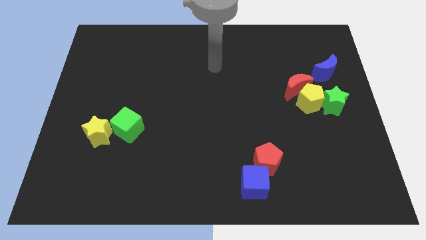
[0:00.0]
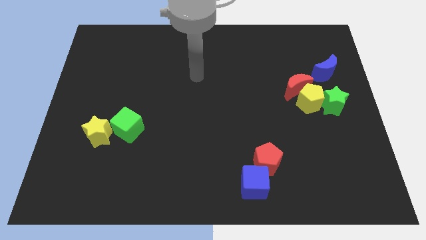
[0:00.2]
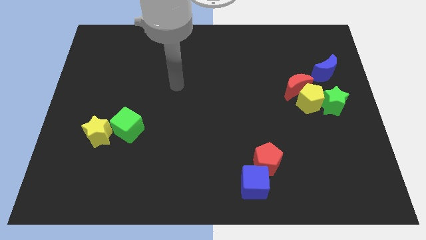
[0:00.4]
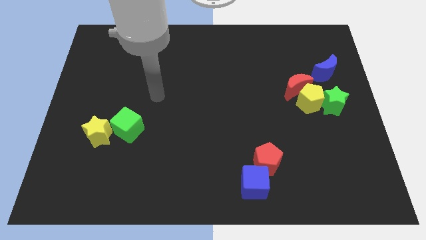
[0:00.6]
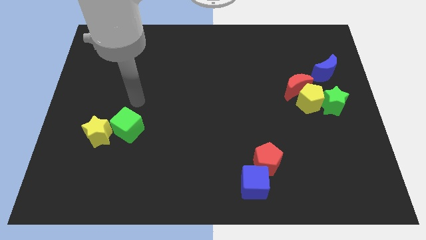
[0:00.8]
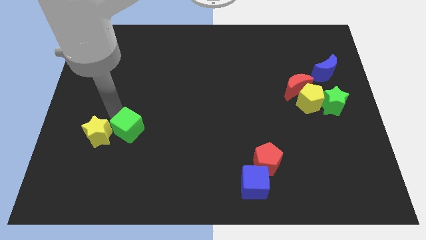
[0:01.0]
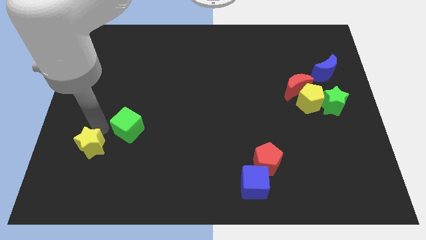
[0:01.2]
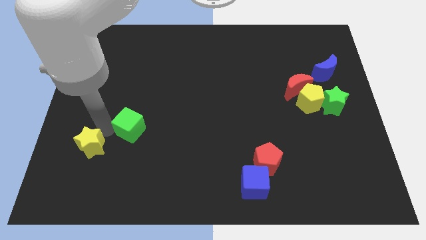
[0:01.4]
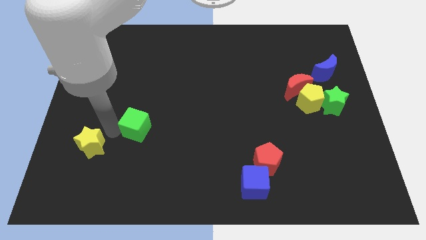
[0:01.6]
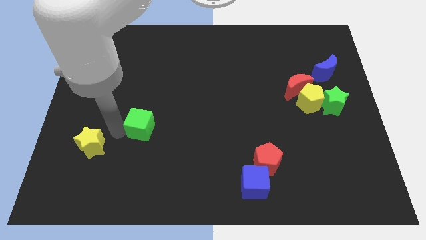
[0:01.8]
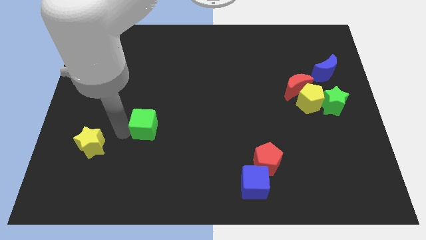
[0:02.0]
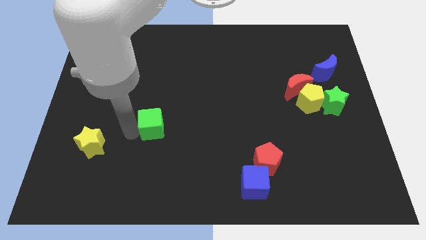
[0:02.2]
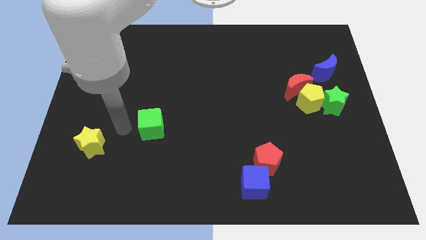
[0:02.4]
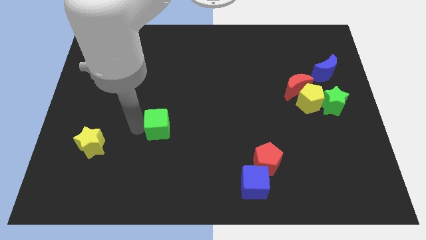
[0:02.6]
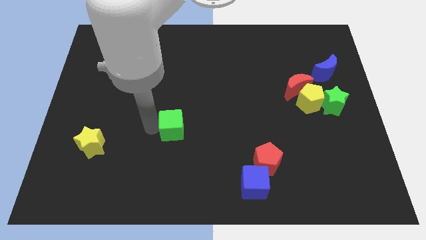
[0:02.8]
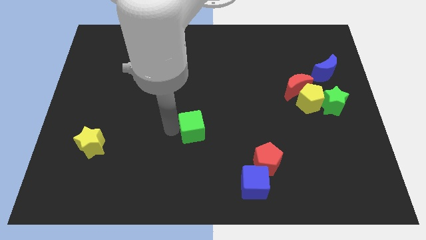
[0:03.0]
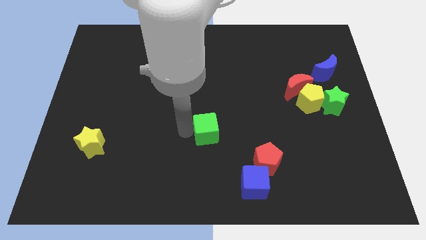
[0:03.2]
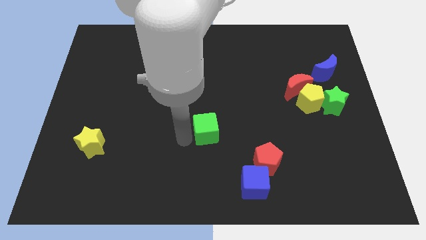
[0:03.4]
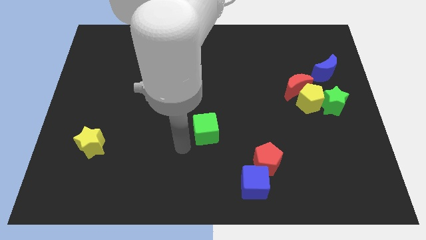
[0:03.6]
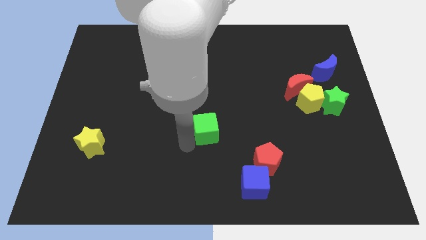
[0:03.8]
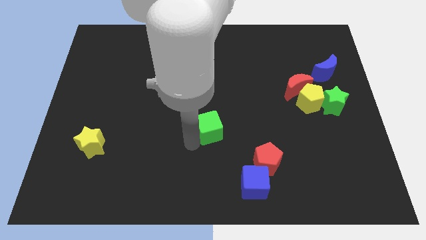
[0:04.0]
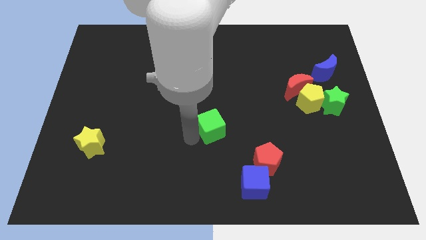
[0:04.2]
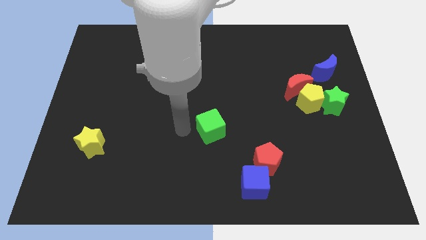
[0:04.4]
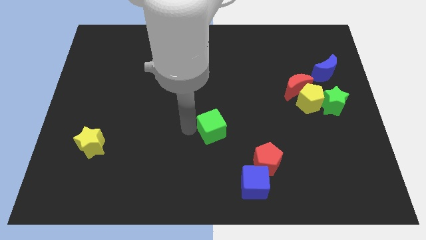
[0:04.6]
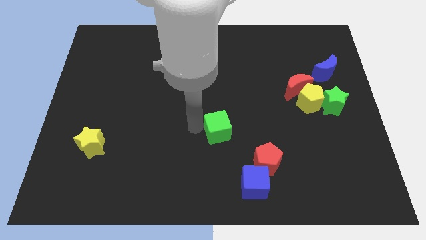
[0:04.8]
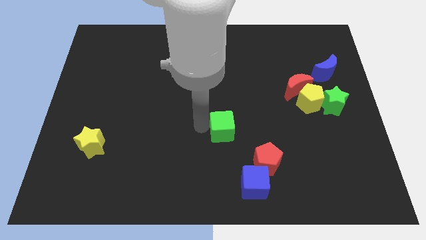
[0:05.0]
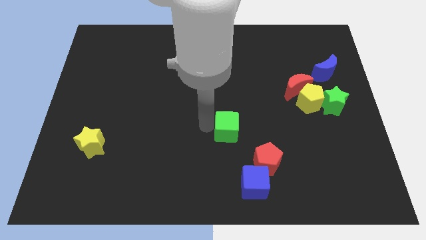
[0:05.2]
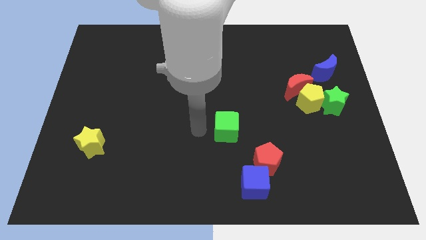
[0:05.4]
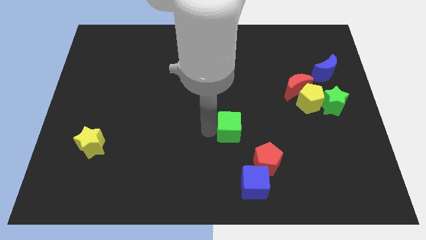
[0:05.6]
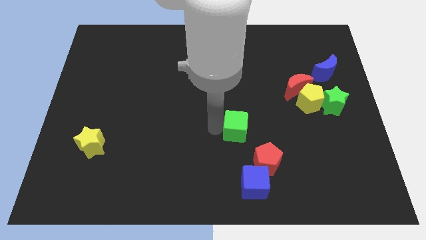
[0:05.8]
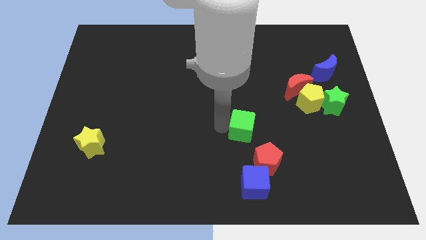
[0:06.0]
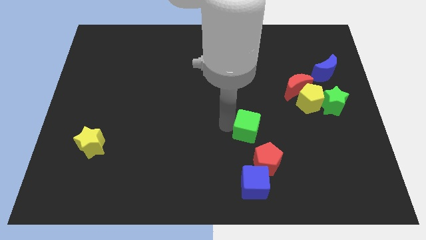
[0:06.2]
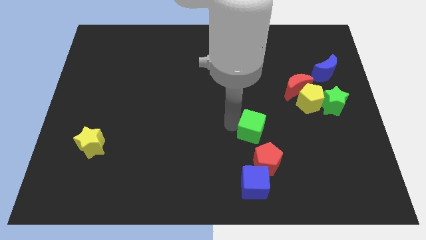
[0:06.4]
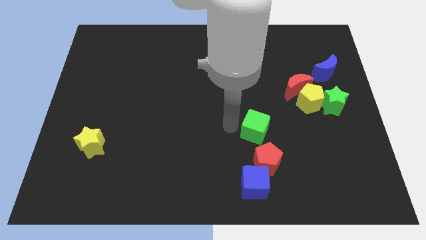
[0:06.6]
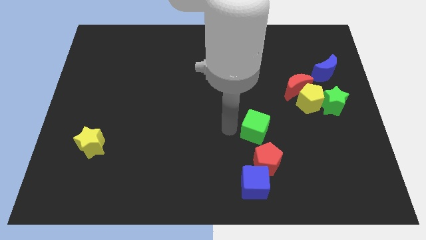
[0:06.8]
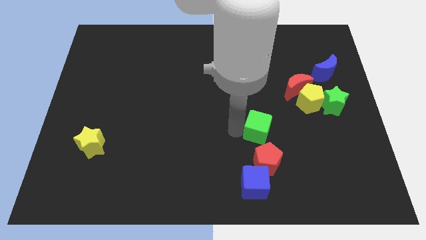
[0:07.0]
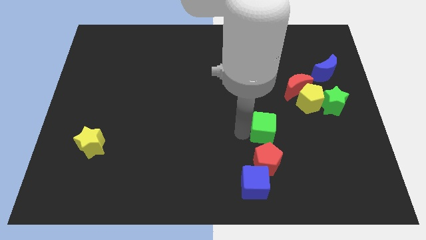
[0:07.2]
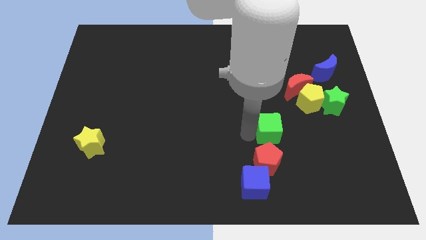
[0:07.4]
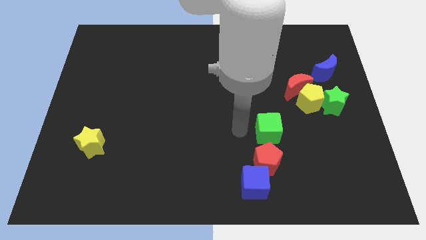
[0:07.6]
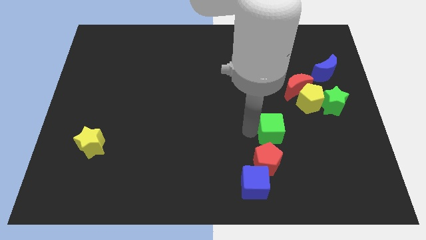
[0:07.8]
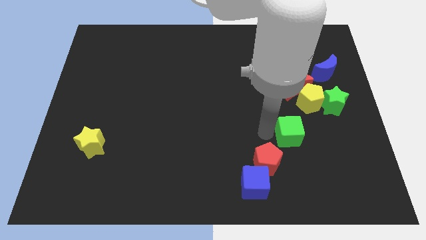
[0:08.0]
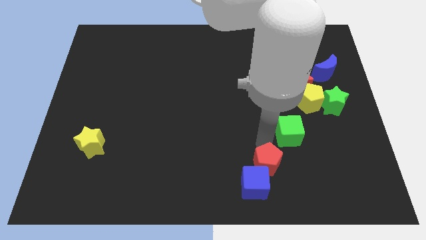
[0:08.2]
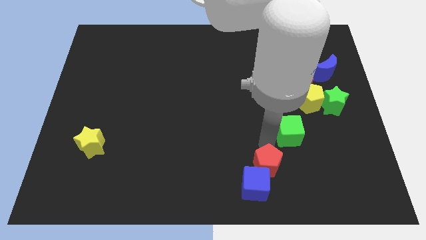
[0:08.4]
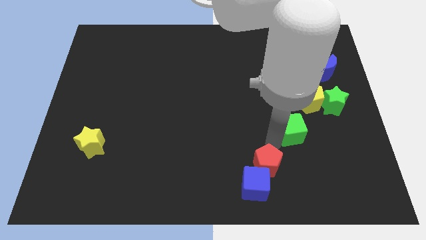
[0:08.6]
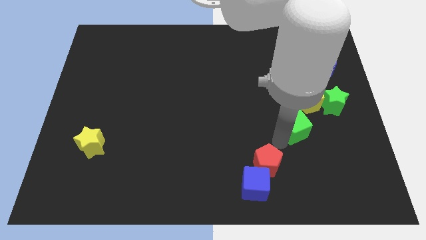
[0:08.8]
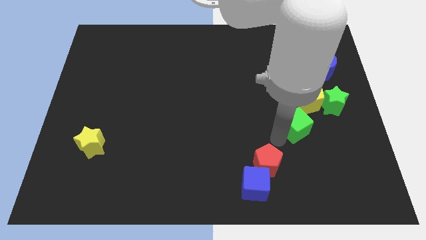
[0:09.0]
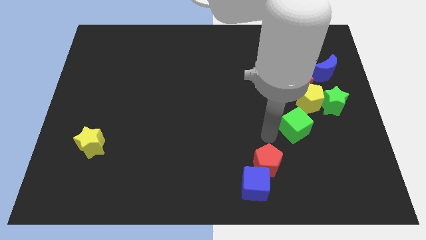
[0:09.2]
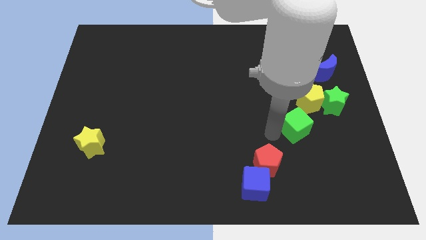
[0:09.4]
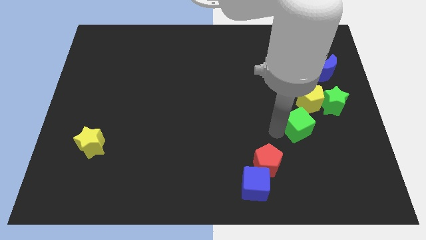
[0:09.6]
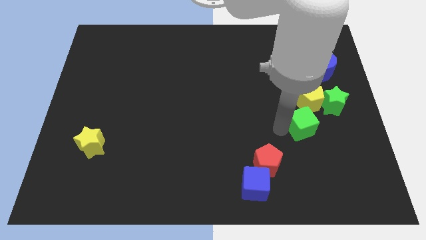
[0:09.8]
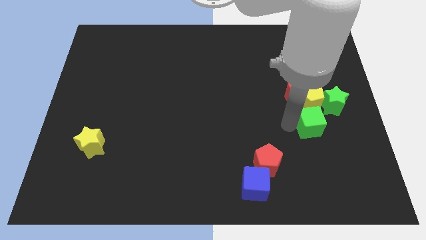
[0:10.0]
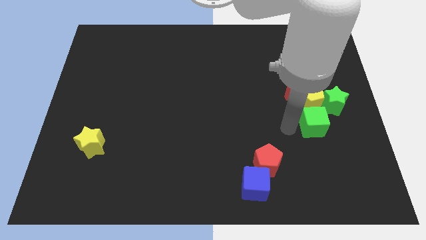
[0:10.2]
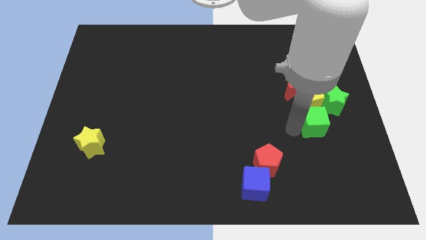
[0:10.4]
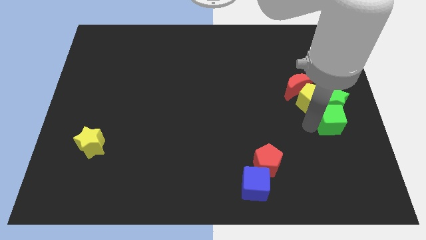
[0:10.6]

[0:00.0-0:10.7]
slide the green cube to the right side of the board

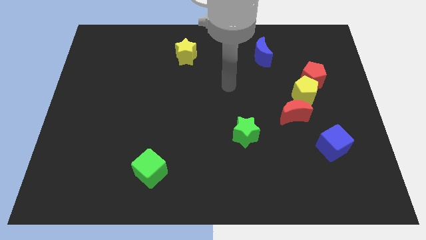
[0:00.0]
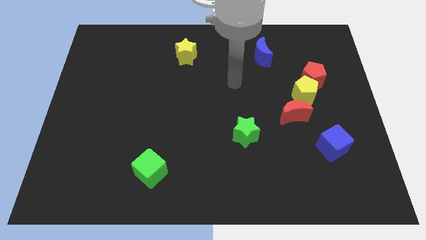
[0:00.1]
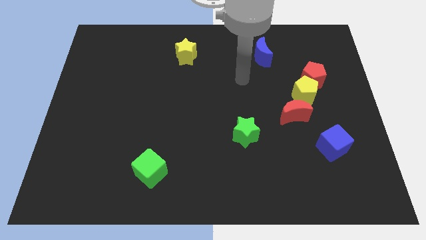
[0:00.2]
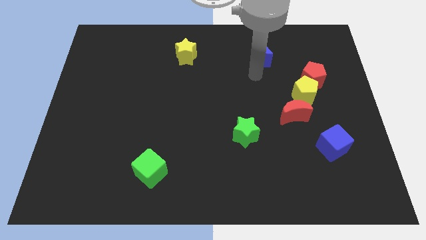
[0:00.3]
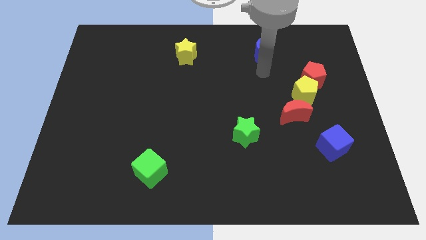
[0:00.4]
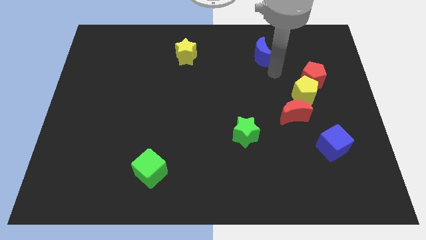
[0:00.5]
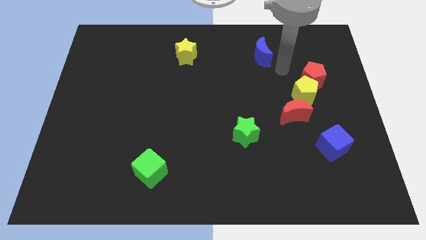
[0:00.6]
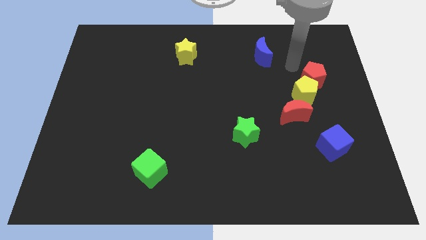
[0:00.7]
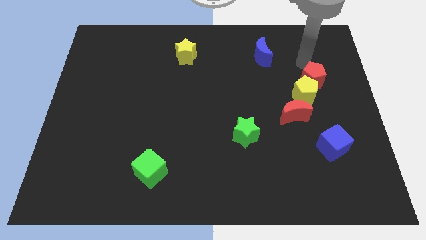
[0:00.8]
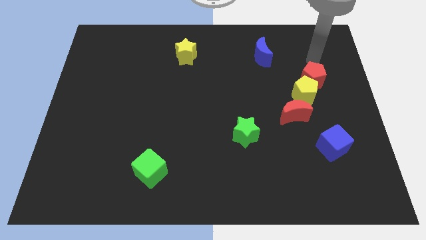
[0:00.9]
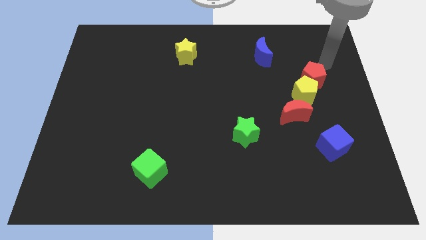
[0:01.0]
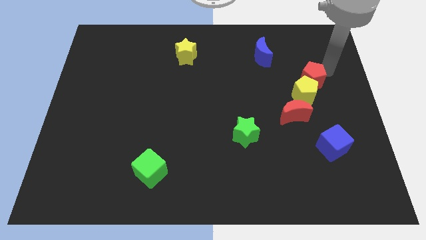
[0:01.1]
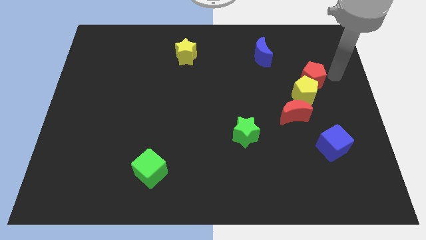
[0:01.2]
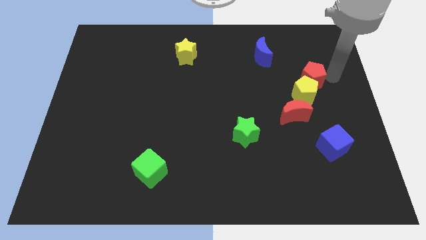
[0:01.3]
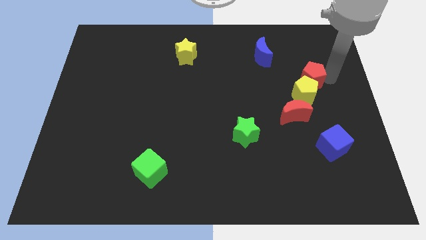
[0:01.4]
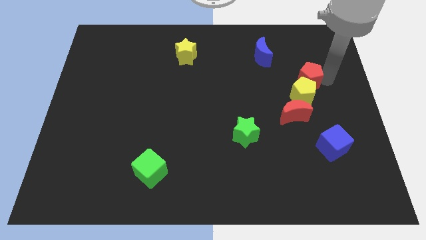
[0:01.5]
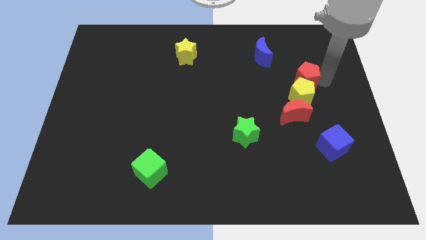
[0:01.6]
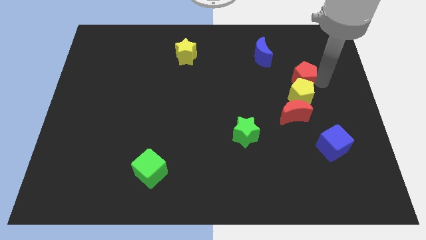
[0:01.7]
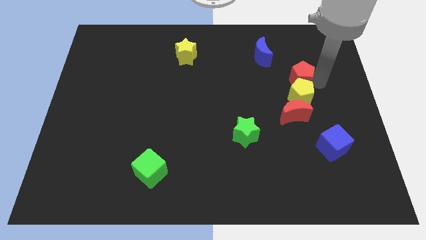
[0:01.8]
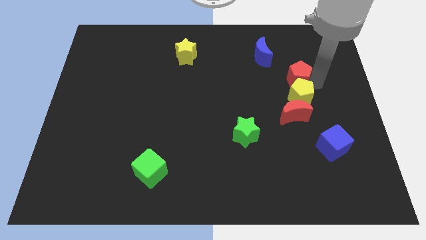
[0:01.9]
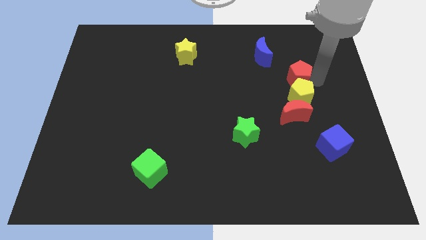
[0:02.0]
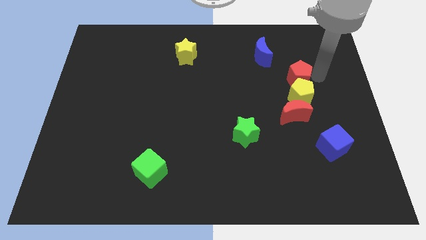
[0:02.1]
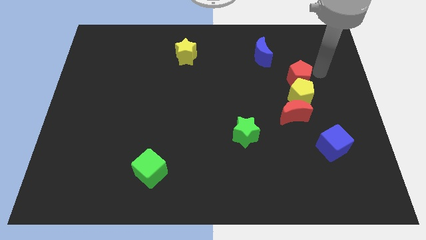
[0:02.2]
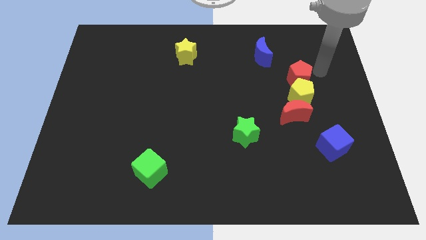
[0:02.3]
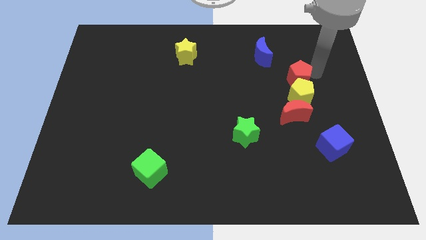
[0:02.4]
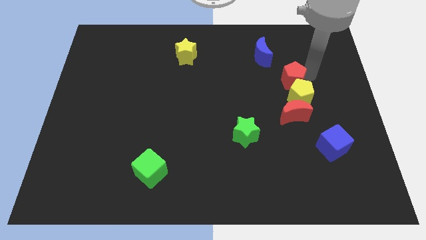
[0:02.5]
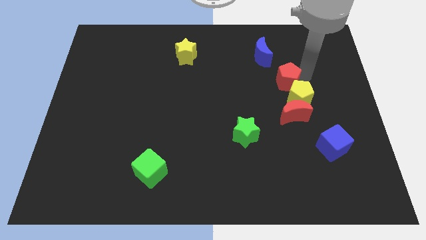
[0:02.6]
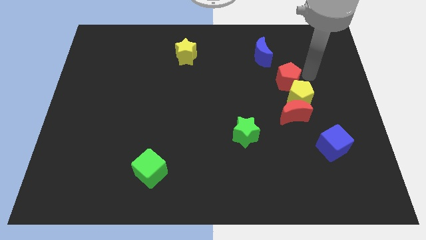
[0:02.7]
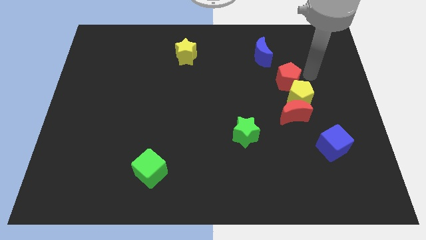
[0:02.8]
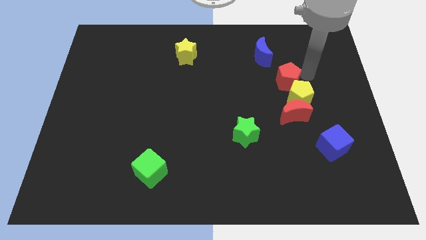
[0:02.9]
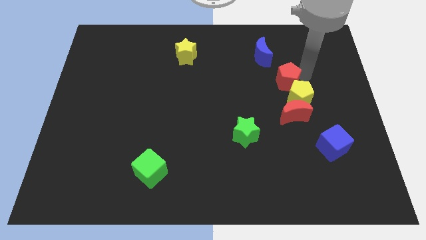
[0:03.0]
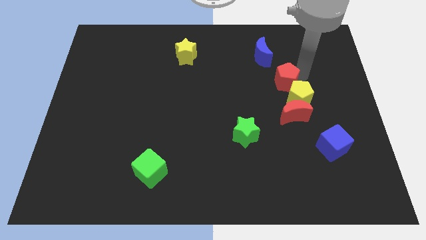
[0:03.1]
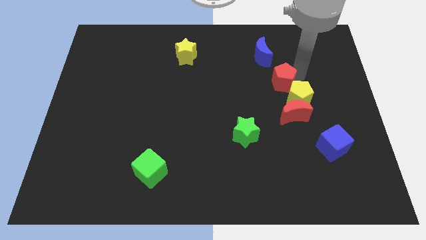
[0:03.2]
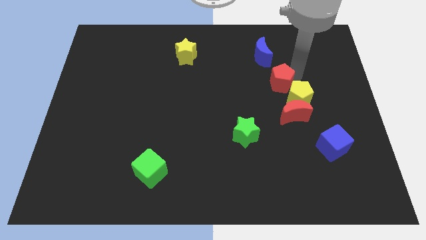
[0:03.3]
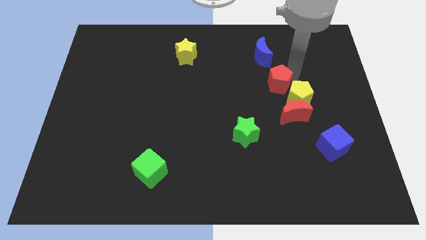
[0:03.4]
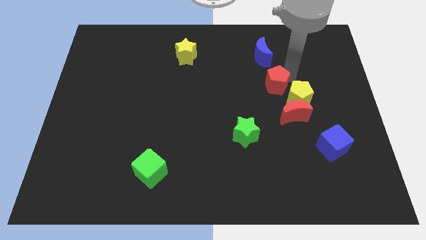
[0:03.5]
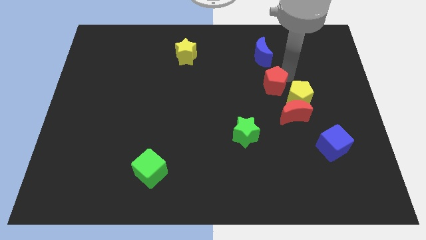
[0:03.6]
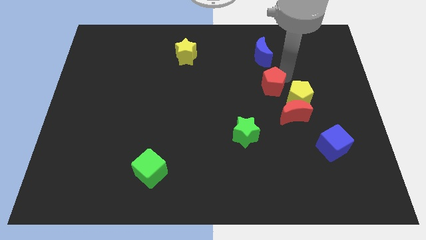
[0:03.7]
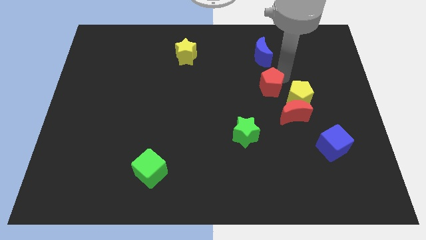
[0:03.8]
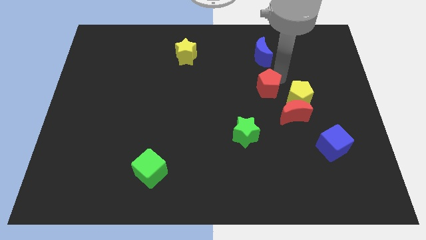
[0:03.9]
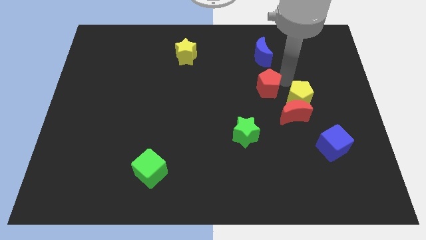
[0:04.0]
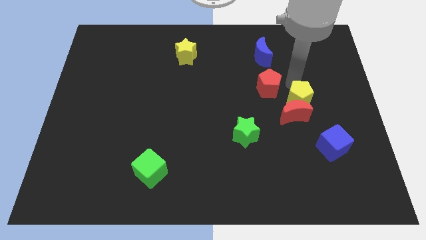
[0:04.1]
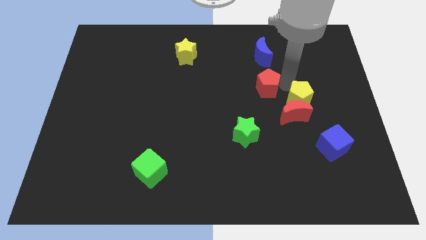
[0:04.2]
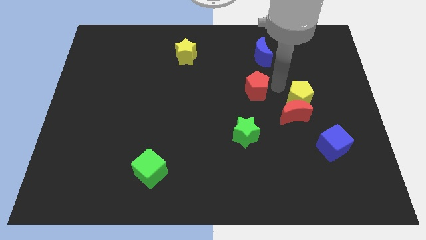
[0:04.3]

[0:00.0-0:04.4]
move the red pentagon to the middle
